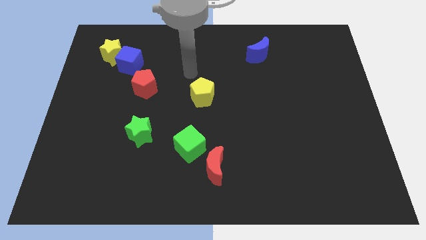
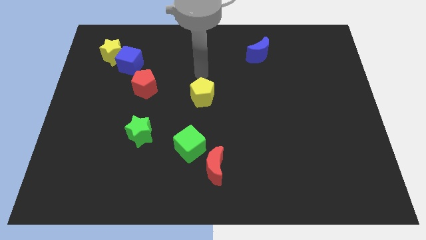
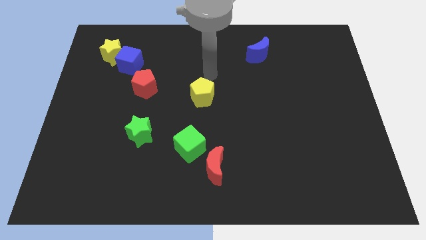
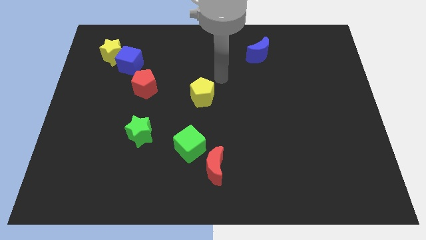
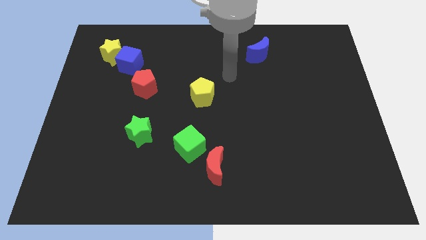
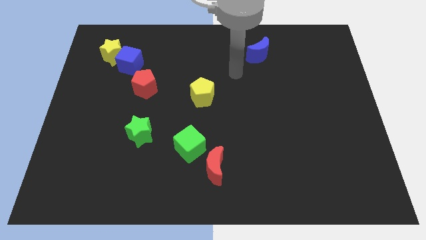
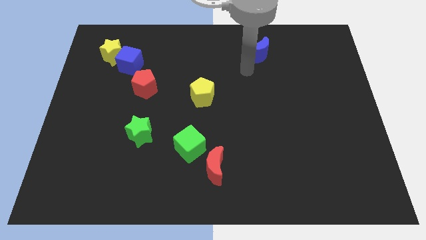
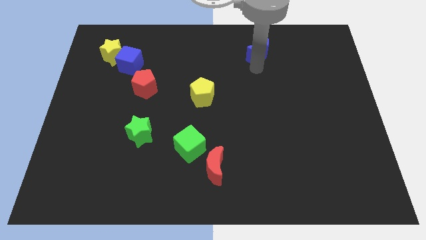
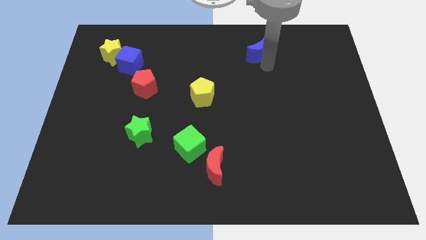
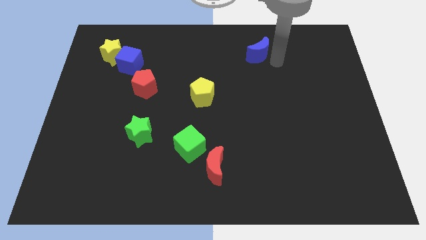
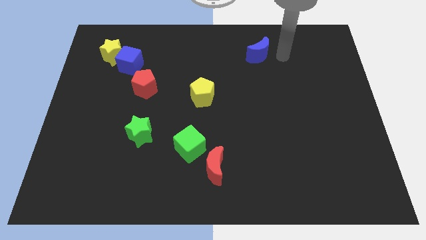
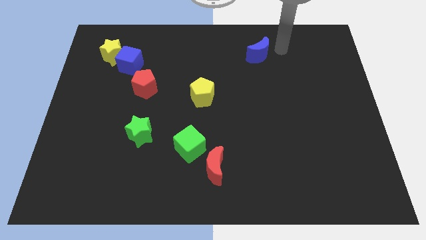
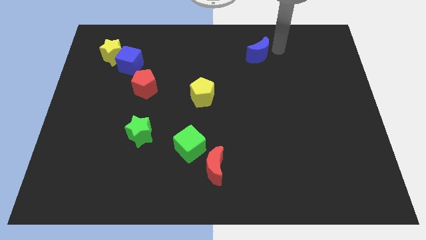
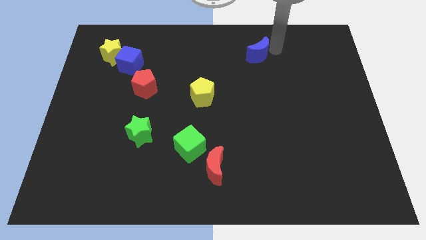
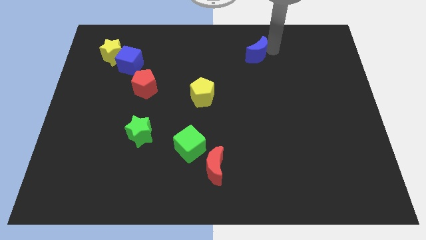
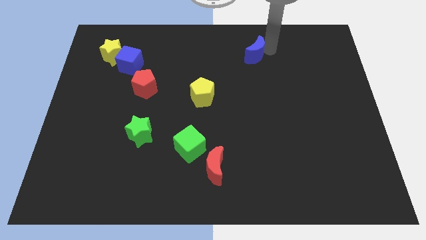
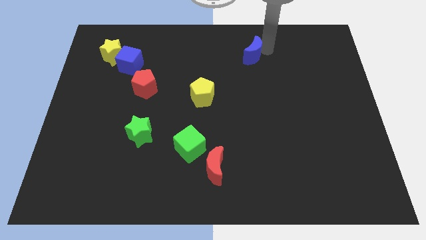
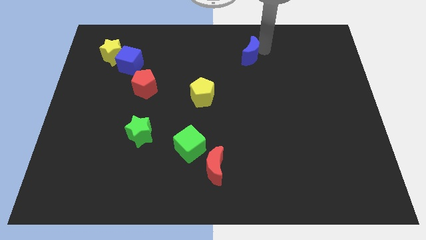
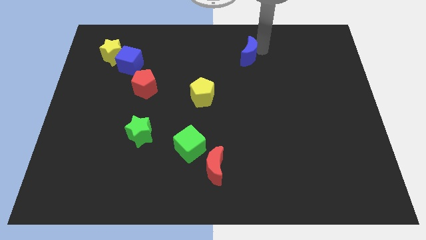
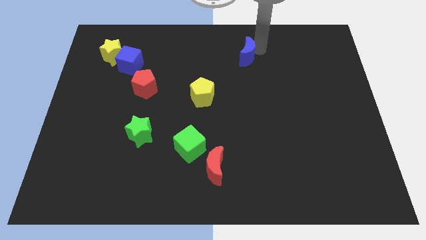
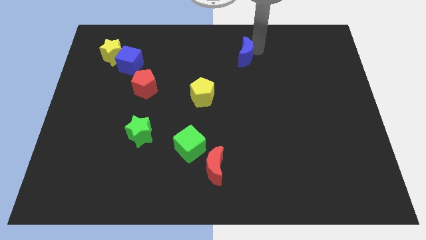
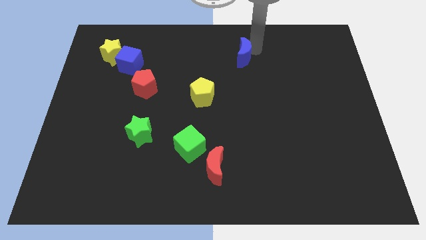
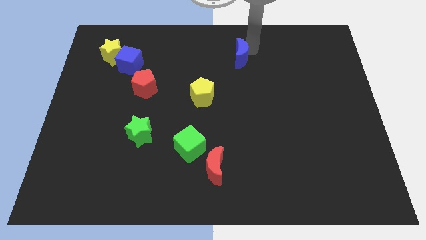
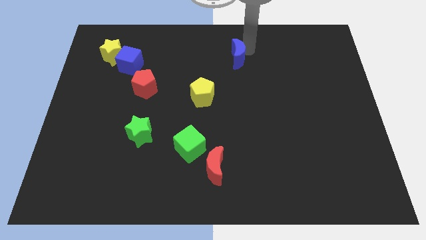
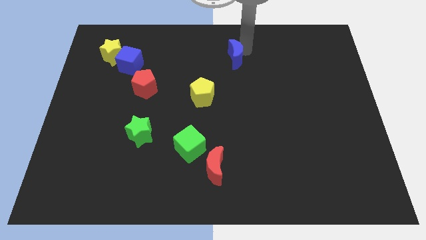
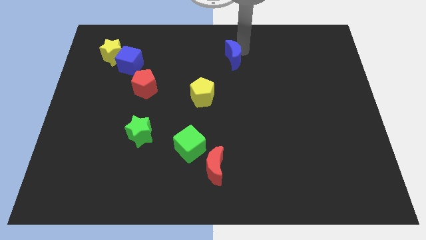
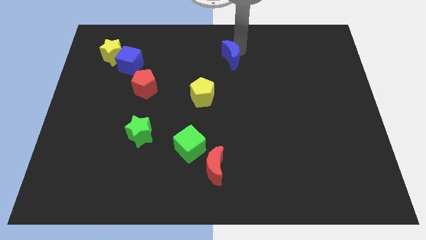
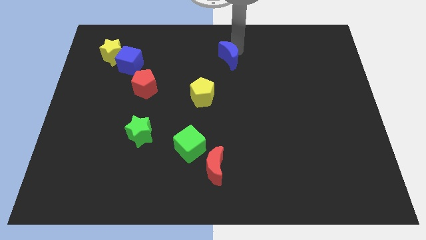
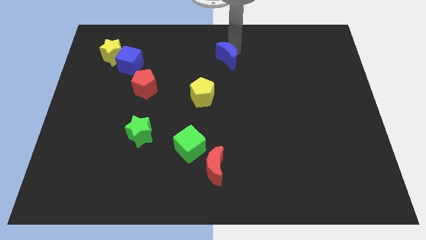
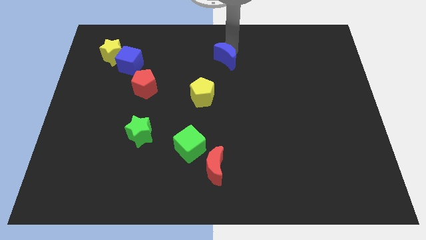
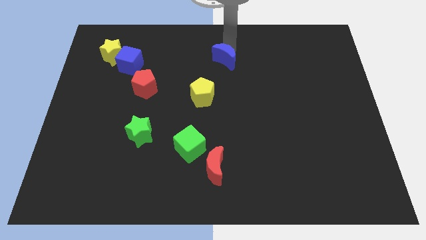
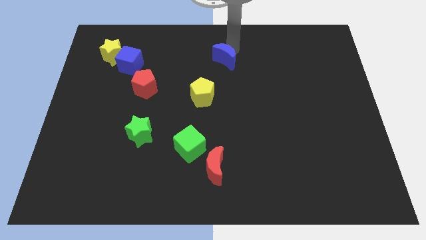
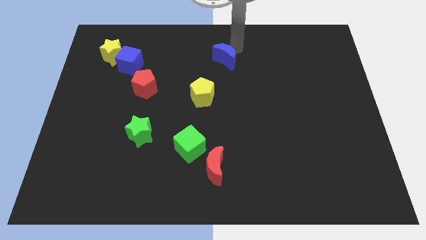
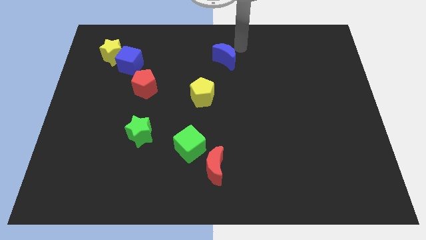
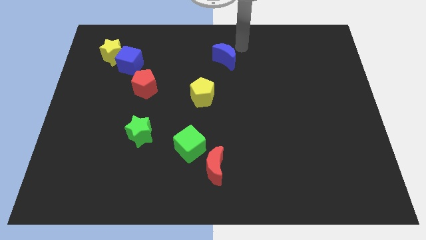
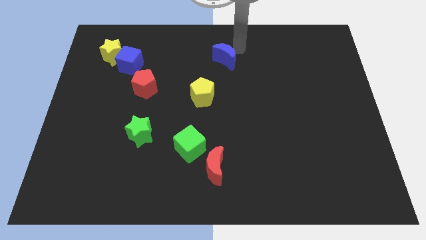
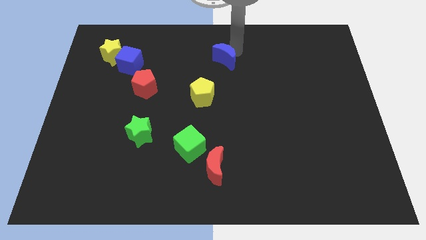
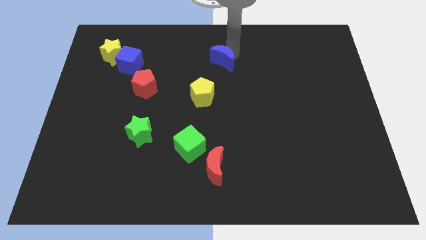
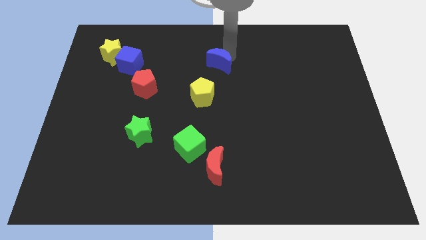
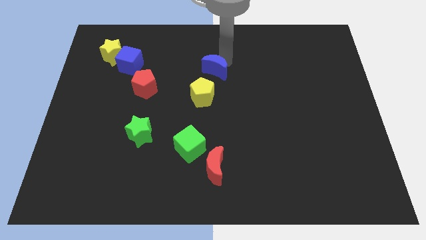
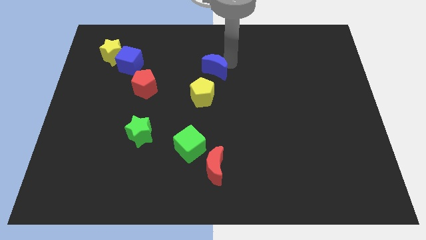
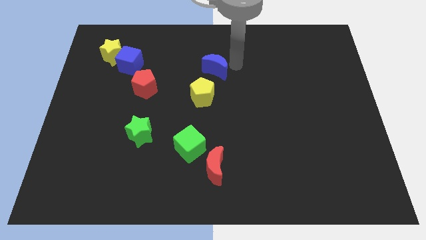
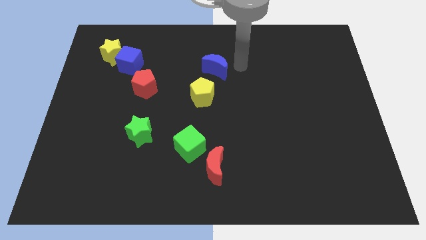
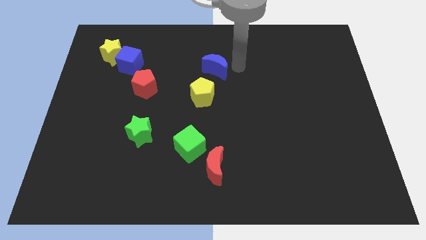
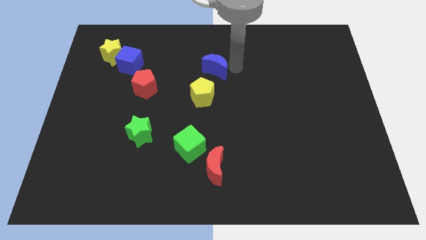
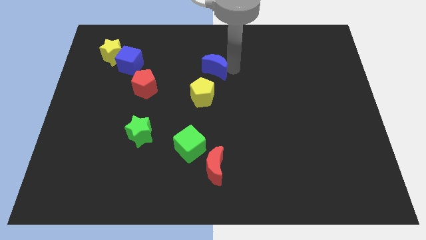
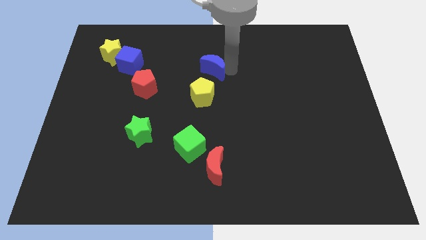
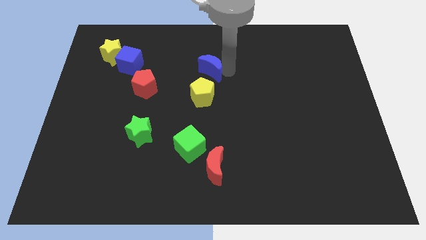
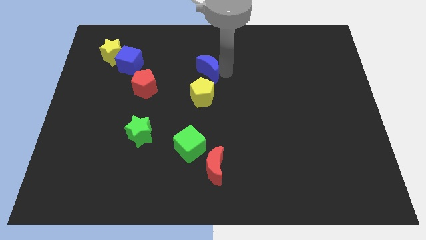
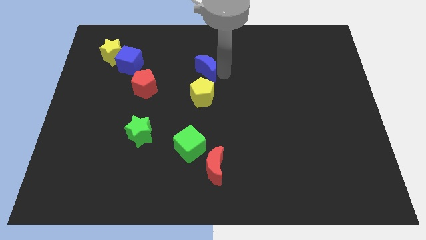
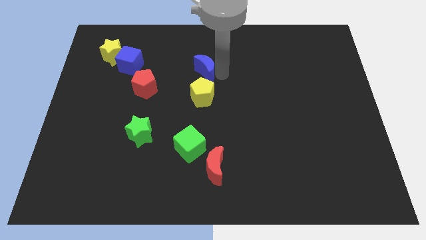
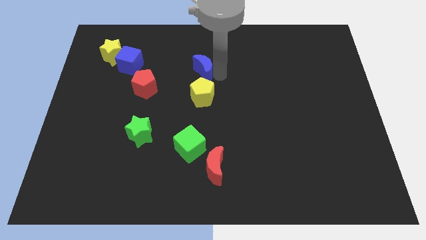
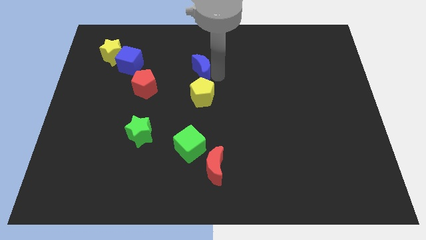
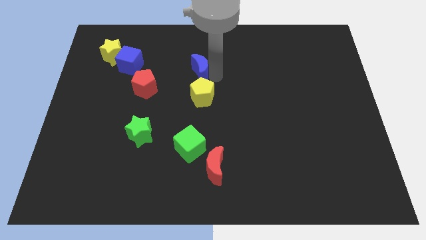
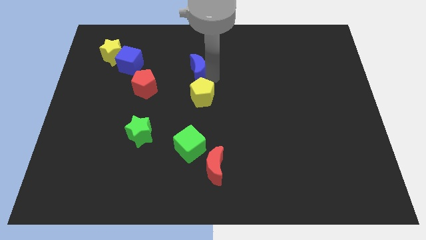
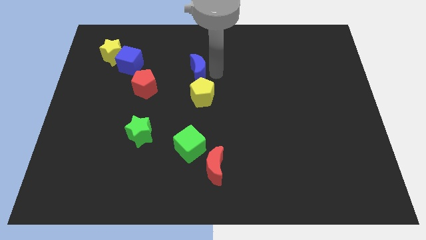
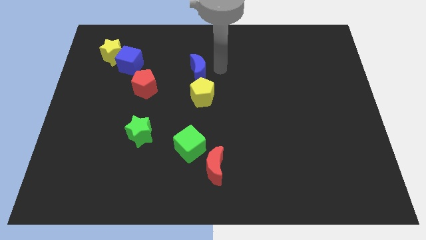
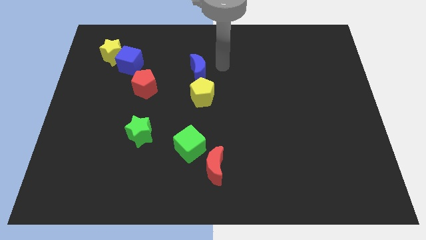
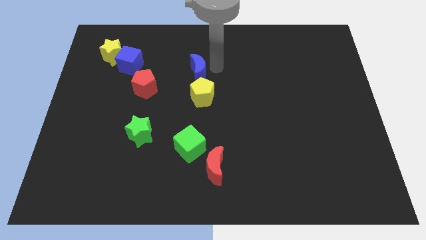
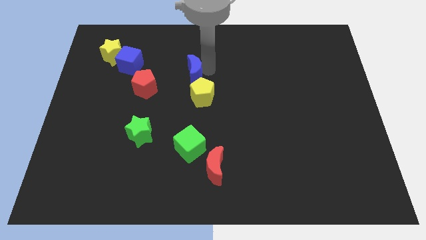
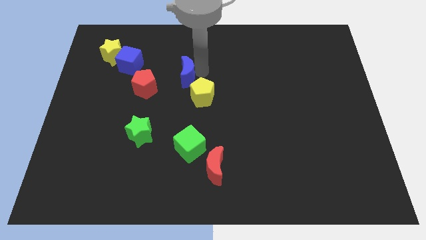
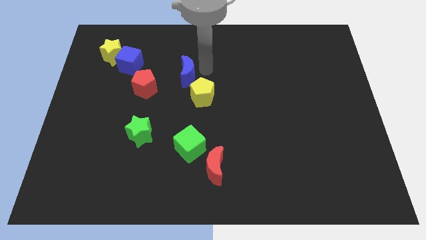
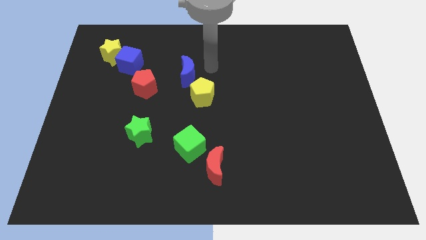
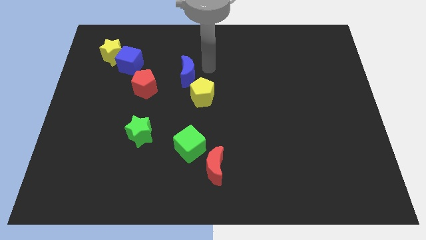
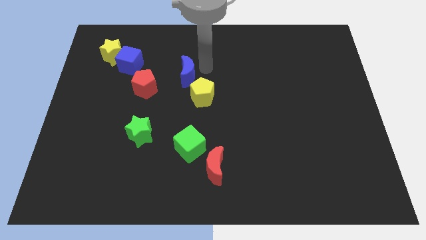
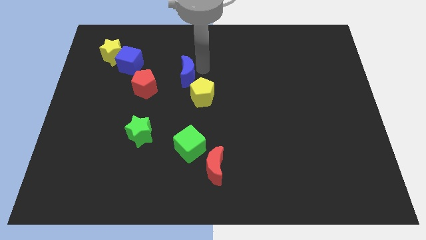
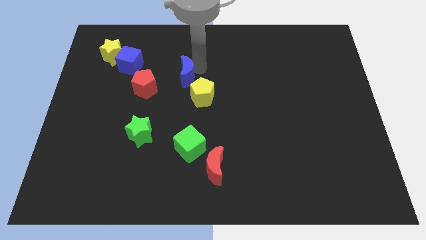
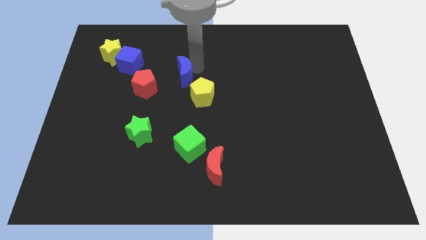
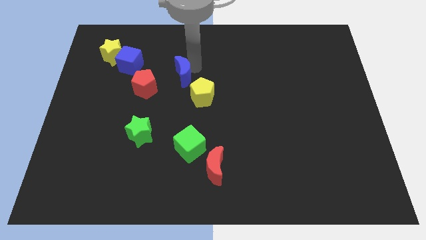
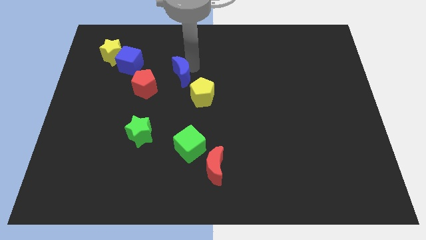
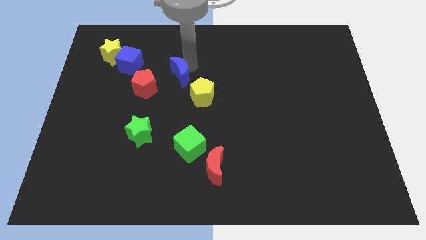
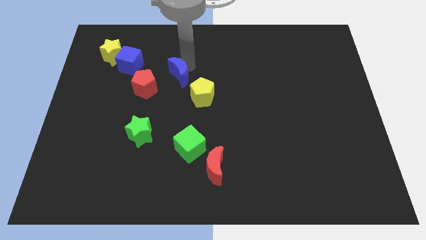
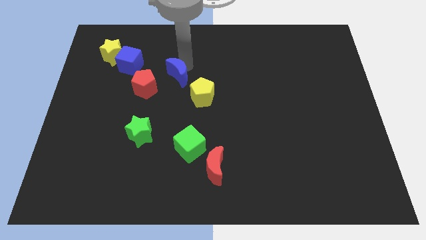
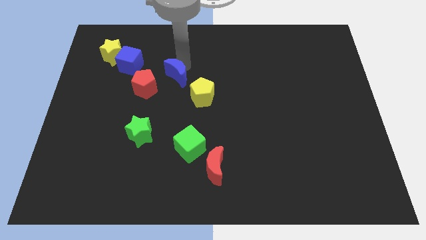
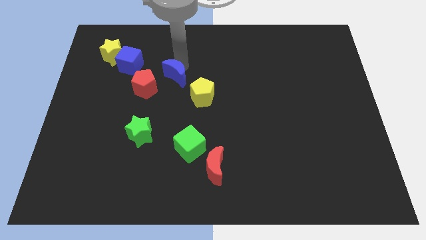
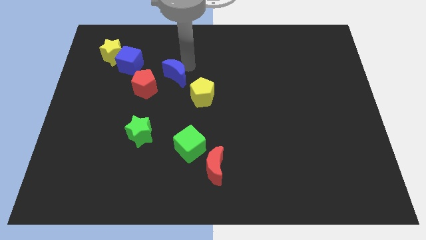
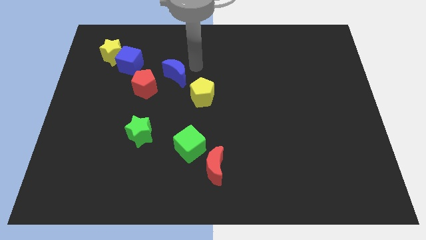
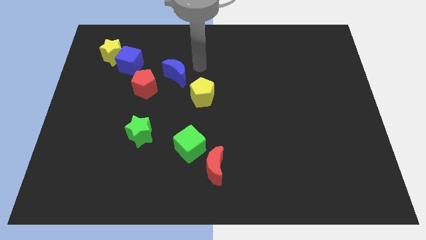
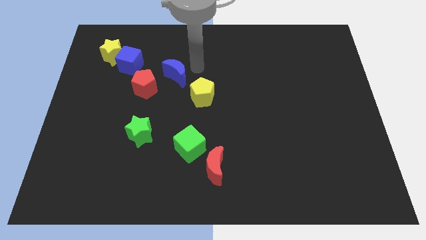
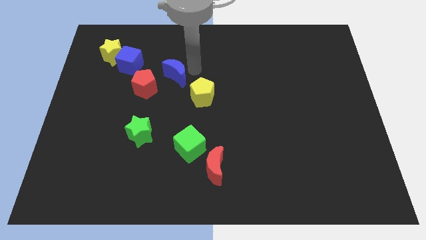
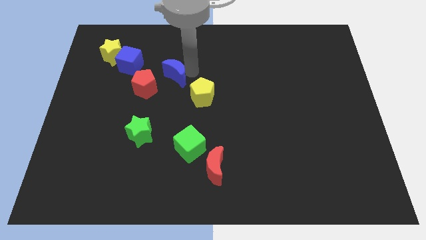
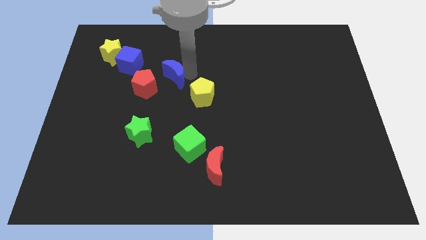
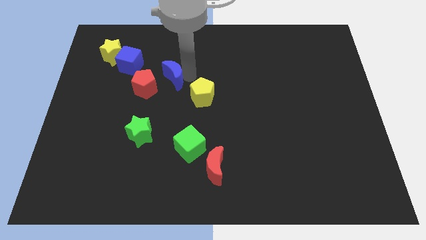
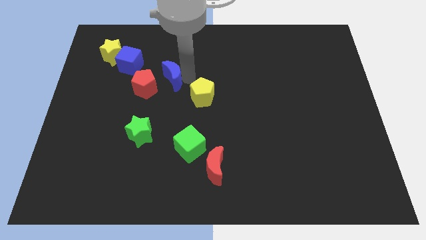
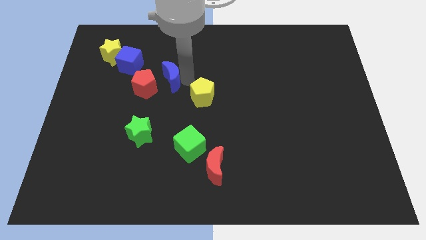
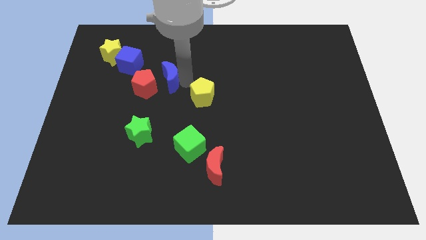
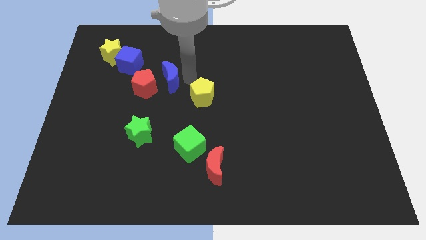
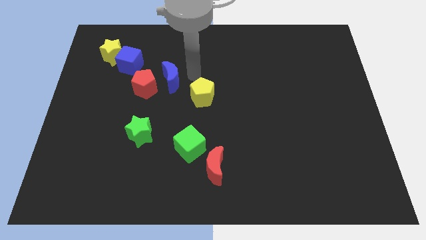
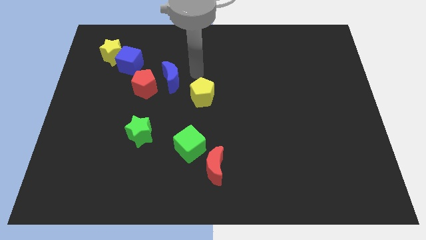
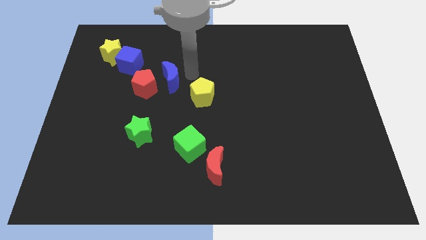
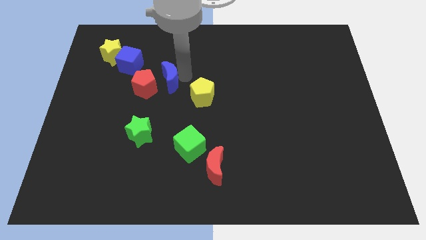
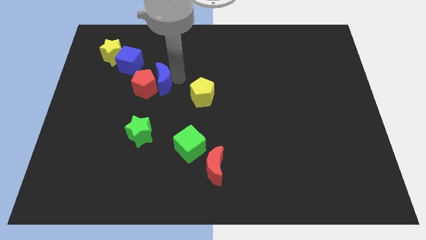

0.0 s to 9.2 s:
push the blue moon towards the red pentagon
